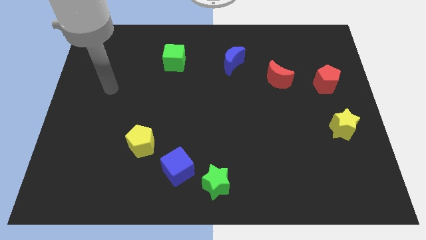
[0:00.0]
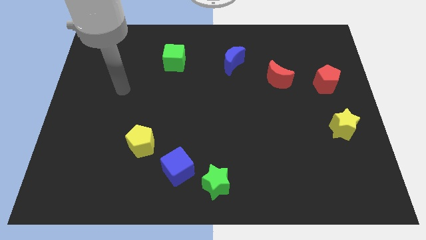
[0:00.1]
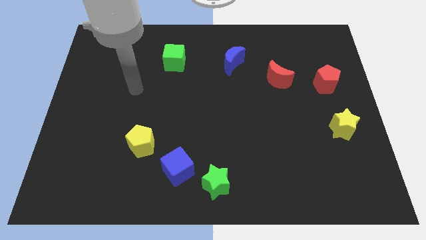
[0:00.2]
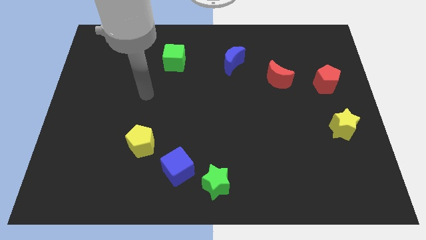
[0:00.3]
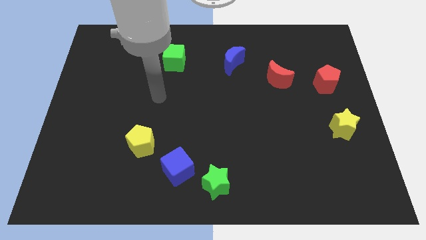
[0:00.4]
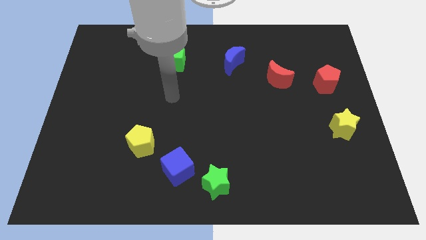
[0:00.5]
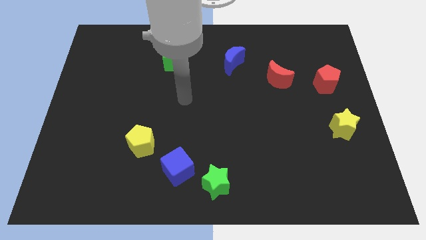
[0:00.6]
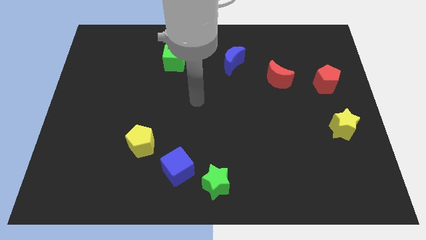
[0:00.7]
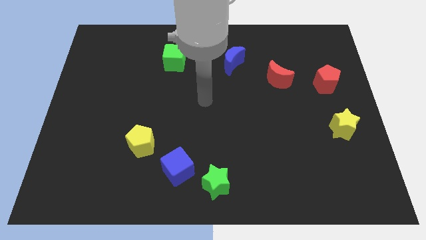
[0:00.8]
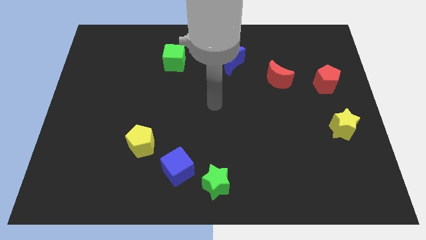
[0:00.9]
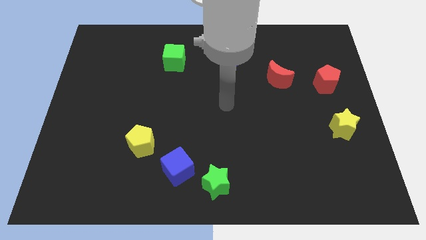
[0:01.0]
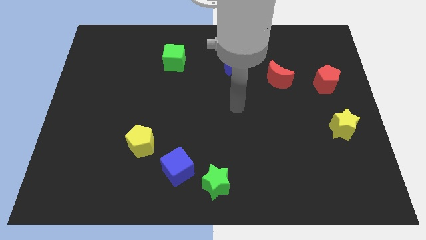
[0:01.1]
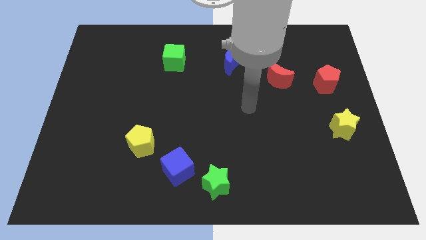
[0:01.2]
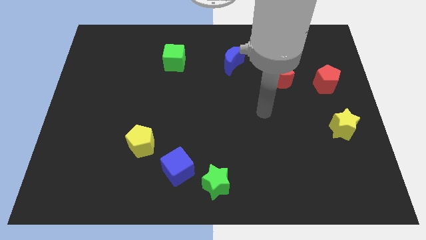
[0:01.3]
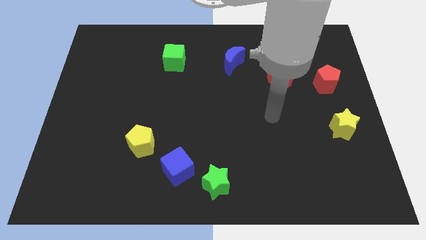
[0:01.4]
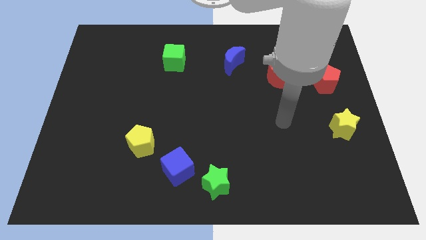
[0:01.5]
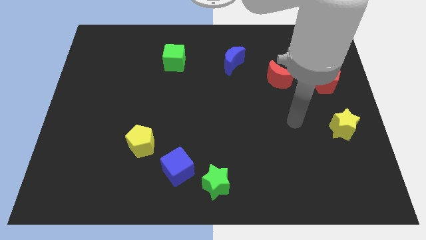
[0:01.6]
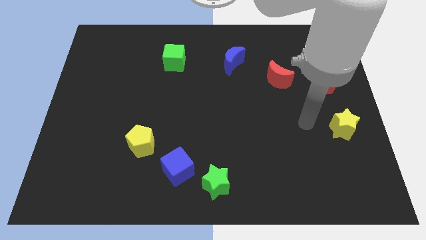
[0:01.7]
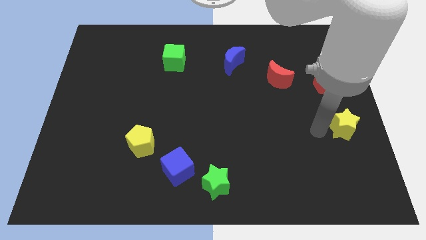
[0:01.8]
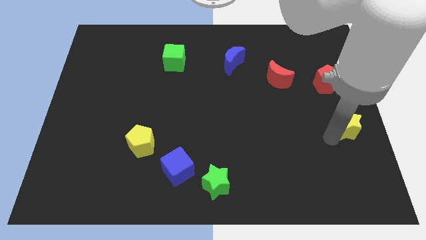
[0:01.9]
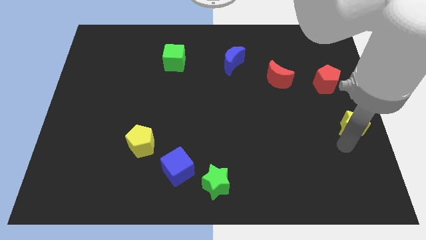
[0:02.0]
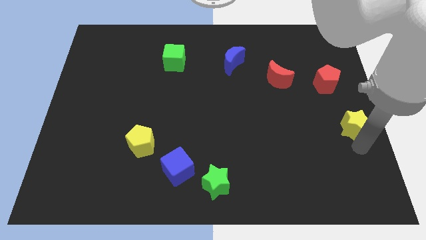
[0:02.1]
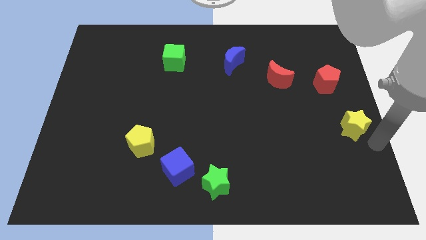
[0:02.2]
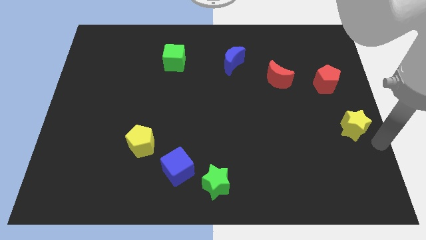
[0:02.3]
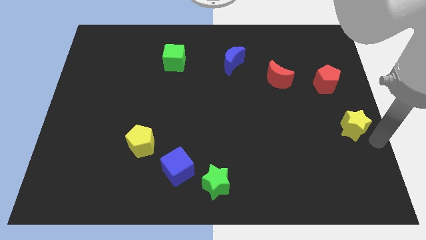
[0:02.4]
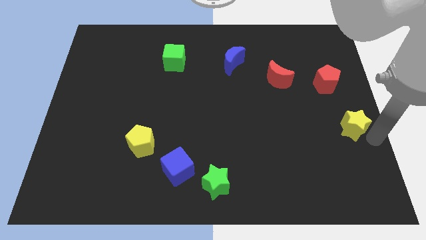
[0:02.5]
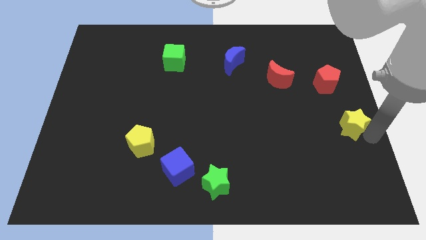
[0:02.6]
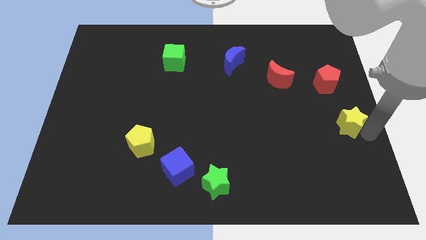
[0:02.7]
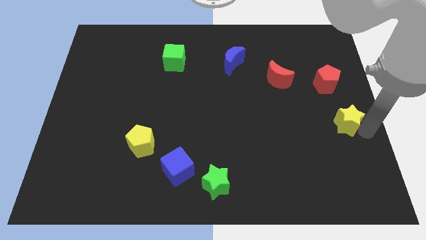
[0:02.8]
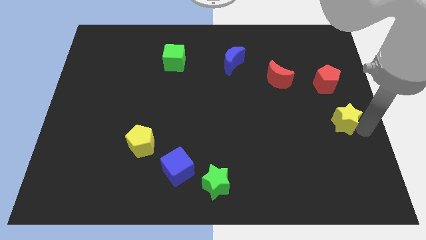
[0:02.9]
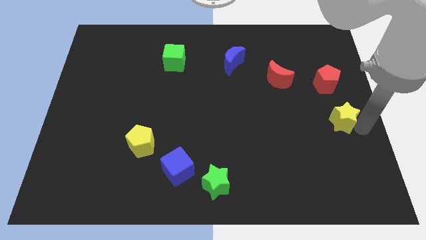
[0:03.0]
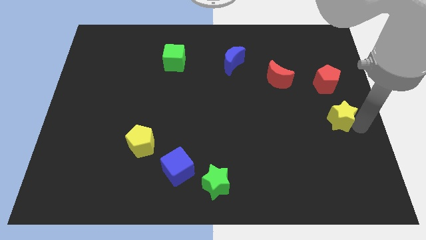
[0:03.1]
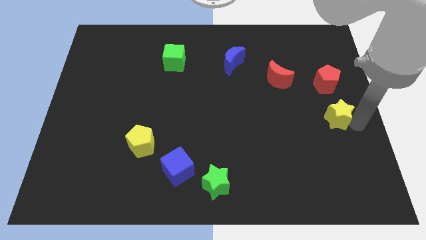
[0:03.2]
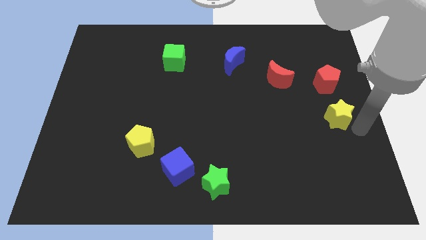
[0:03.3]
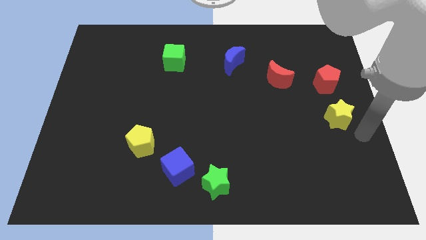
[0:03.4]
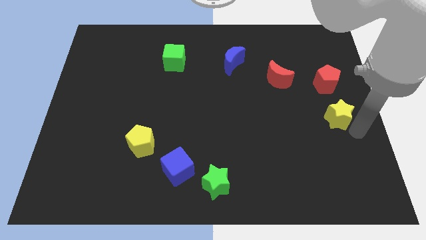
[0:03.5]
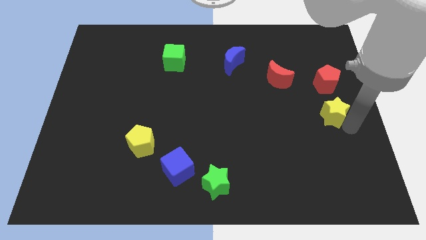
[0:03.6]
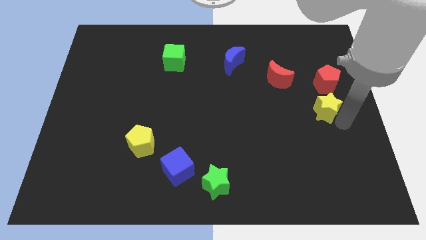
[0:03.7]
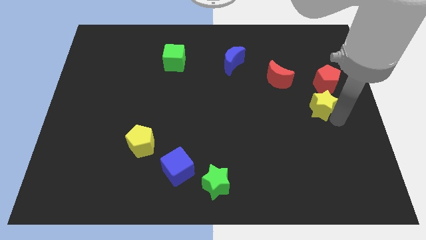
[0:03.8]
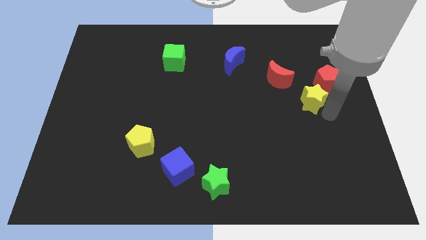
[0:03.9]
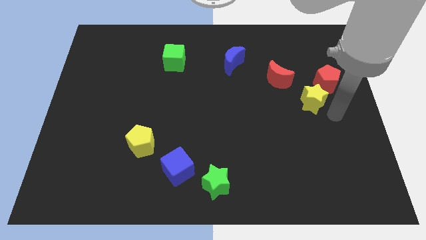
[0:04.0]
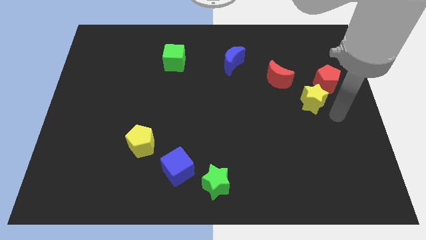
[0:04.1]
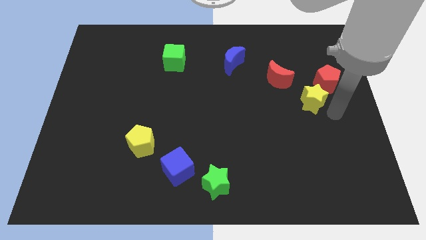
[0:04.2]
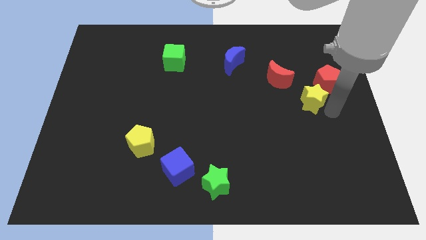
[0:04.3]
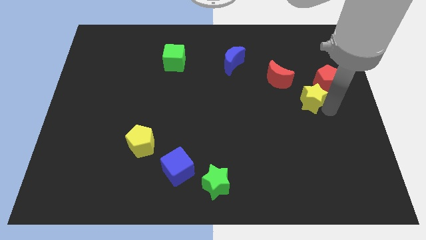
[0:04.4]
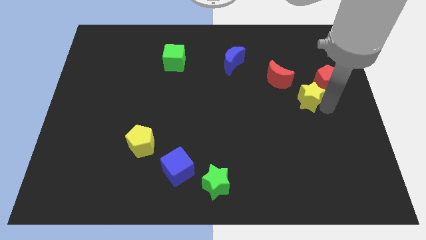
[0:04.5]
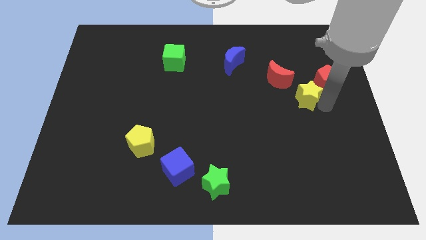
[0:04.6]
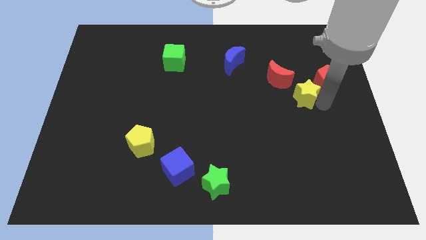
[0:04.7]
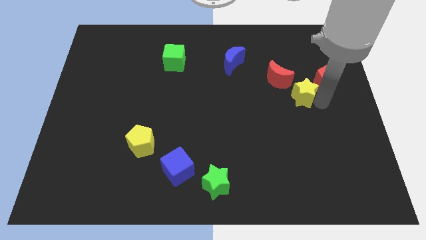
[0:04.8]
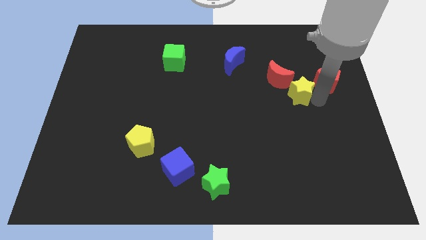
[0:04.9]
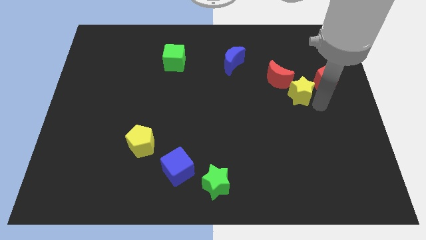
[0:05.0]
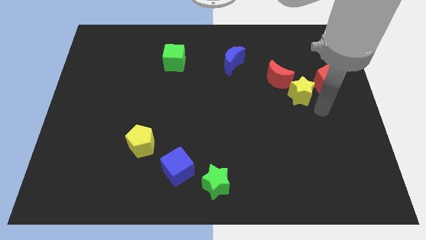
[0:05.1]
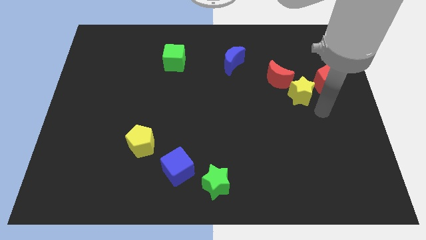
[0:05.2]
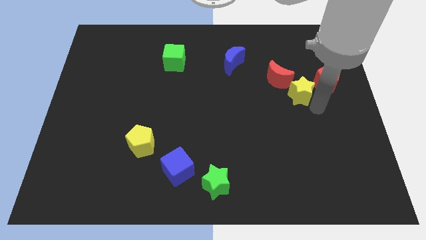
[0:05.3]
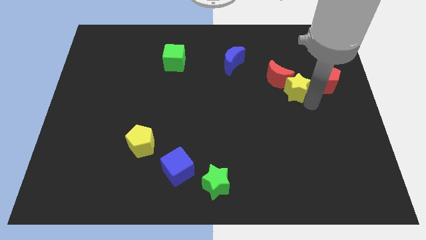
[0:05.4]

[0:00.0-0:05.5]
slide the yellow star close to the red moon

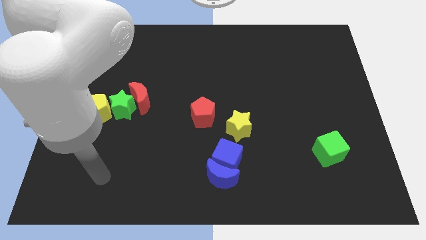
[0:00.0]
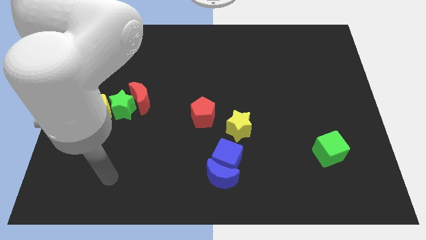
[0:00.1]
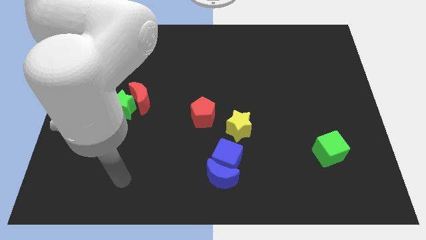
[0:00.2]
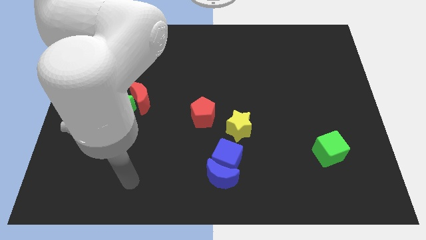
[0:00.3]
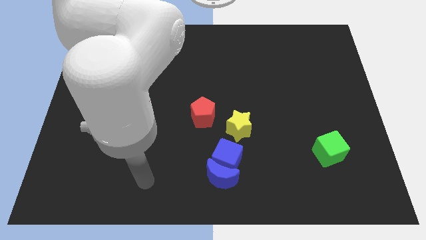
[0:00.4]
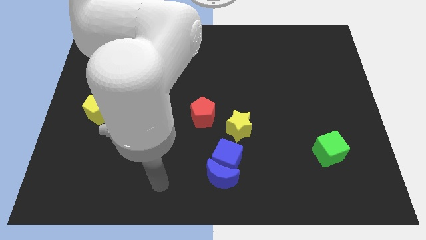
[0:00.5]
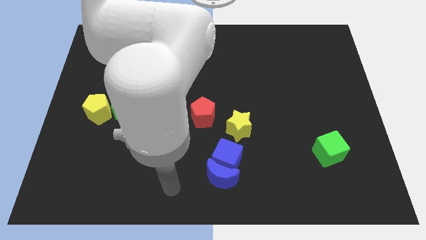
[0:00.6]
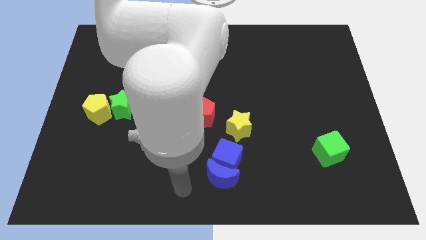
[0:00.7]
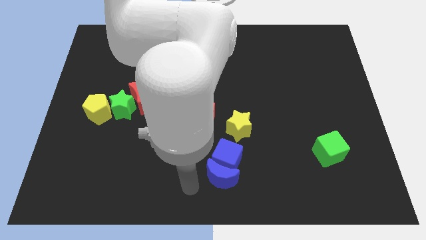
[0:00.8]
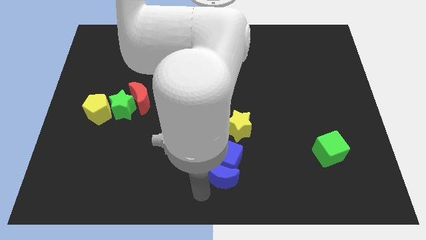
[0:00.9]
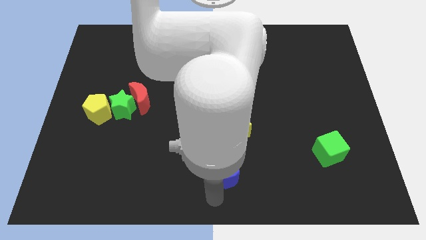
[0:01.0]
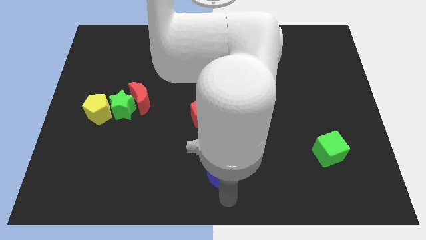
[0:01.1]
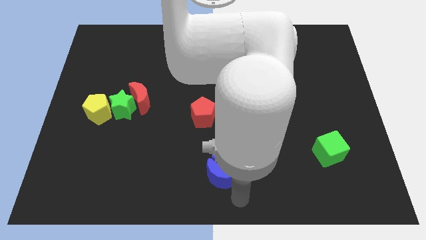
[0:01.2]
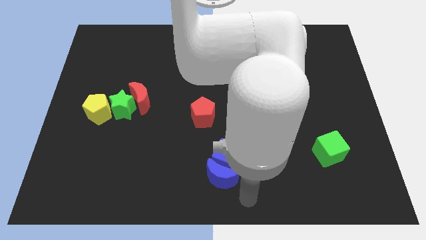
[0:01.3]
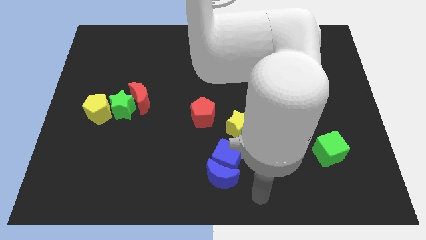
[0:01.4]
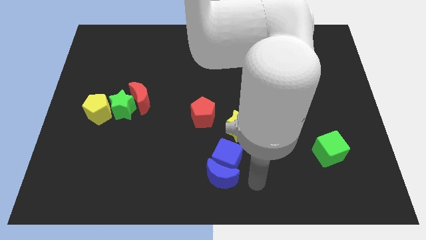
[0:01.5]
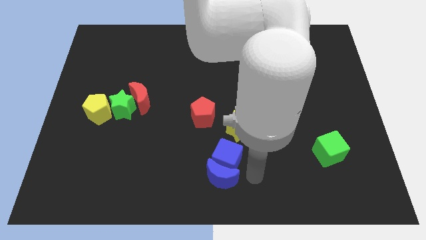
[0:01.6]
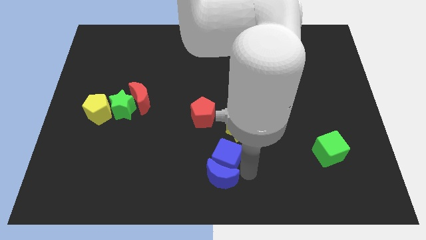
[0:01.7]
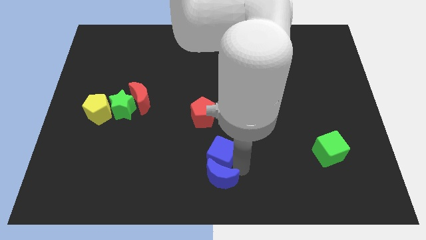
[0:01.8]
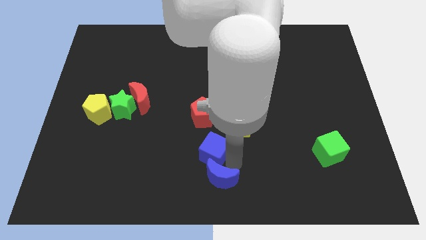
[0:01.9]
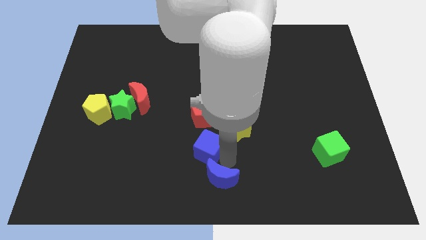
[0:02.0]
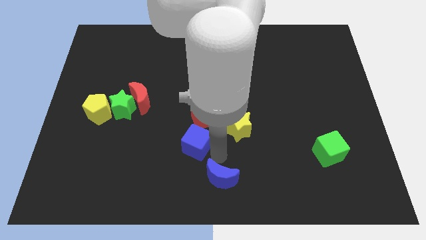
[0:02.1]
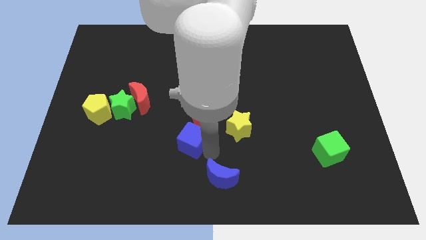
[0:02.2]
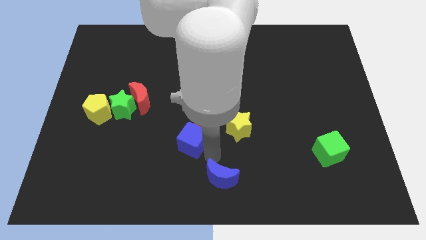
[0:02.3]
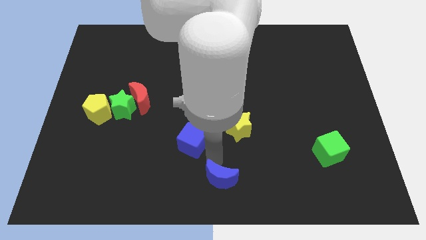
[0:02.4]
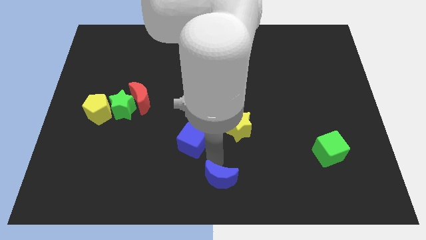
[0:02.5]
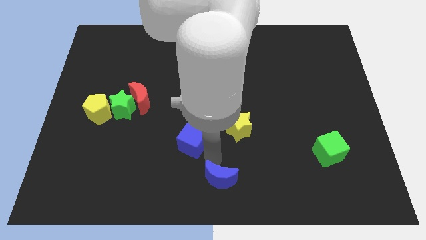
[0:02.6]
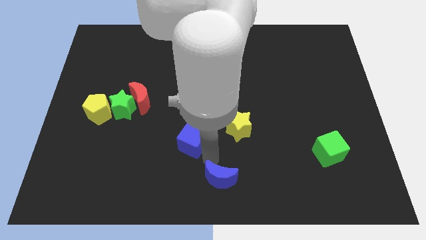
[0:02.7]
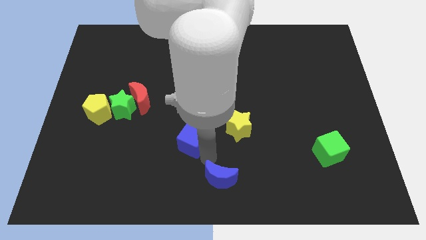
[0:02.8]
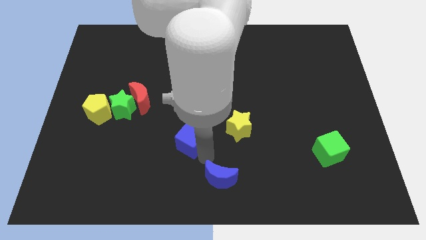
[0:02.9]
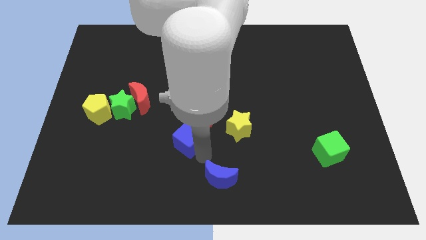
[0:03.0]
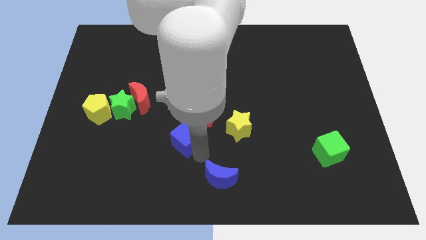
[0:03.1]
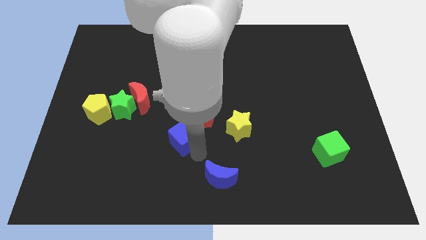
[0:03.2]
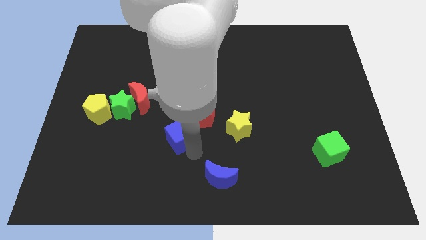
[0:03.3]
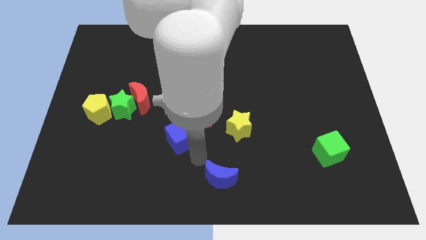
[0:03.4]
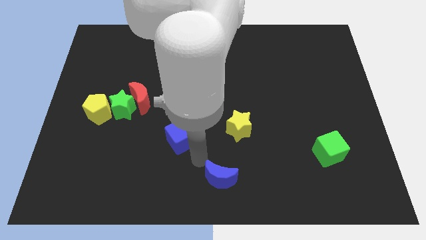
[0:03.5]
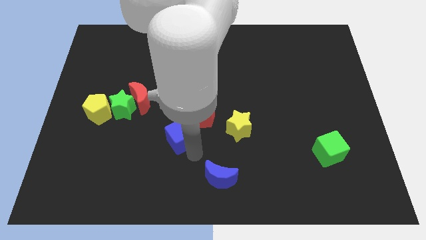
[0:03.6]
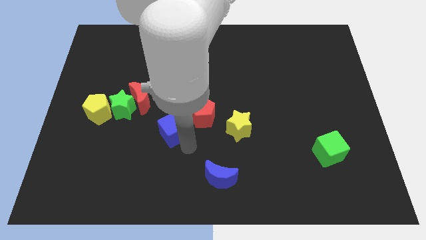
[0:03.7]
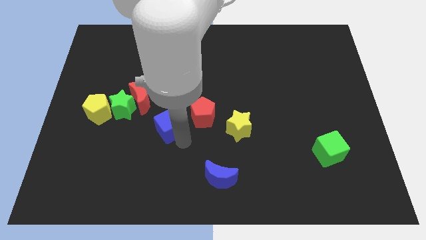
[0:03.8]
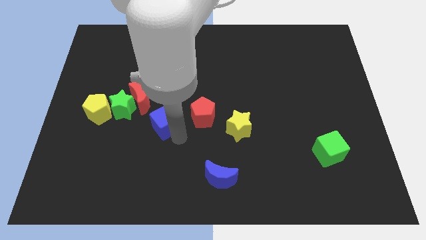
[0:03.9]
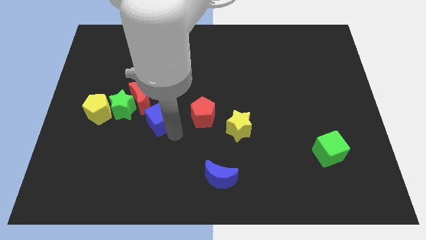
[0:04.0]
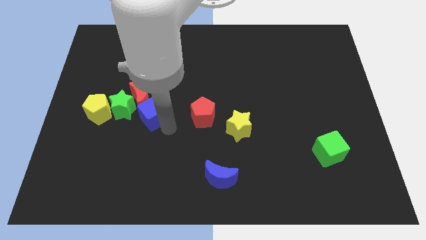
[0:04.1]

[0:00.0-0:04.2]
move the blue cube to the red moon
